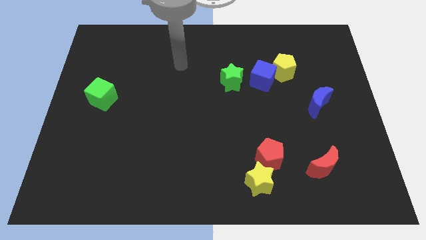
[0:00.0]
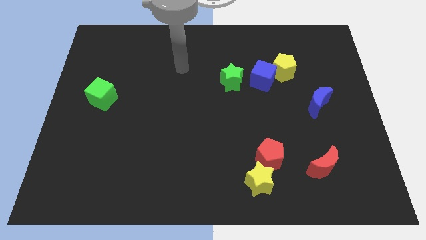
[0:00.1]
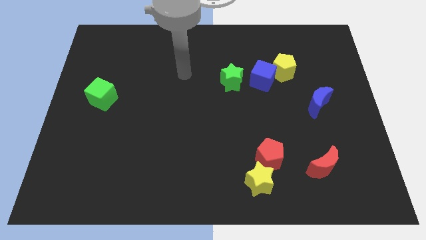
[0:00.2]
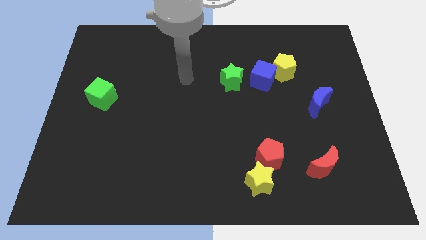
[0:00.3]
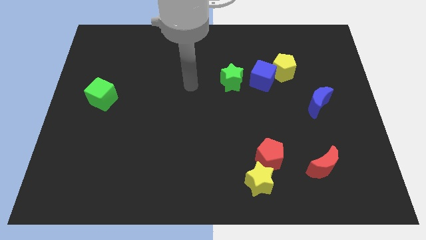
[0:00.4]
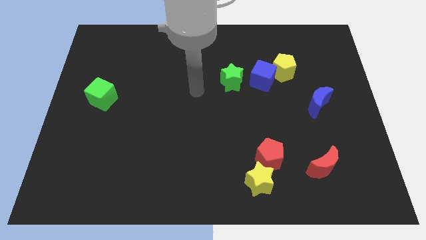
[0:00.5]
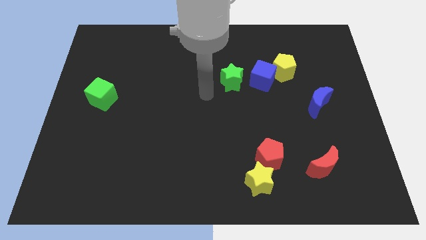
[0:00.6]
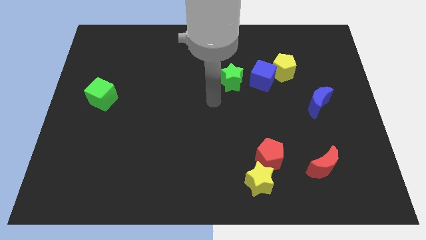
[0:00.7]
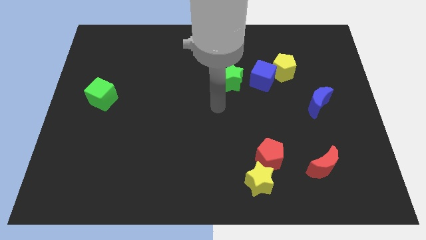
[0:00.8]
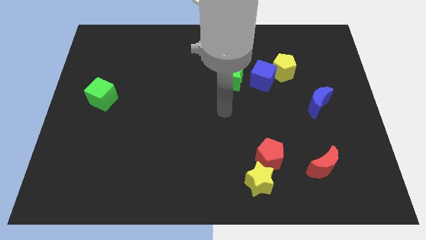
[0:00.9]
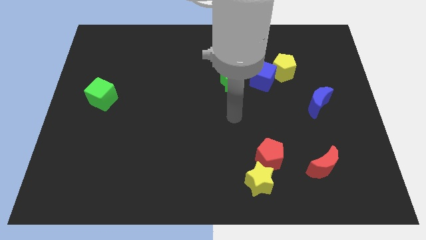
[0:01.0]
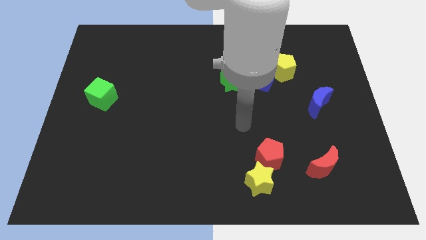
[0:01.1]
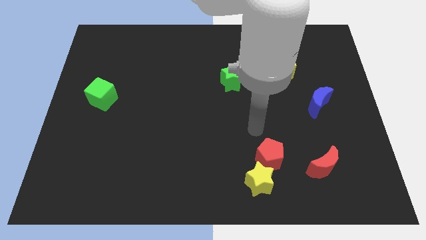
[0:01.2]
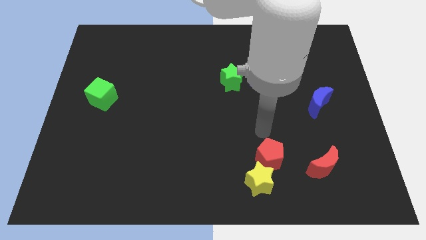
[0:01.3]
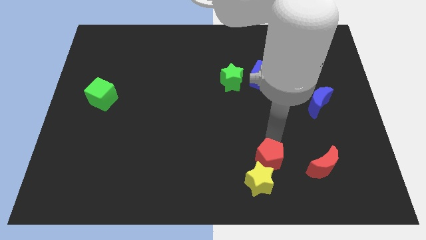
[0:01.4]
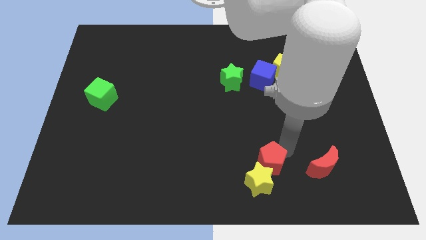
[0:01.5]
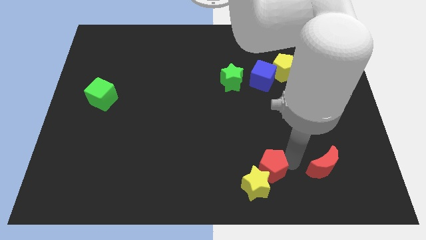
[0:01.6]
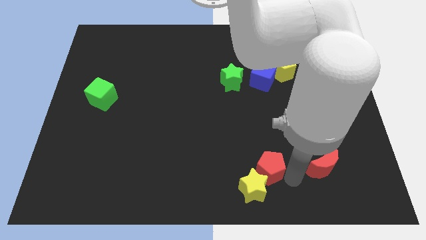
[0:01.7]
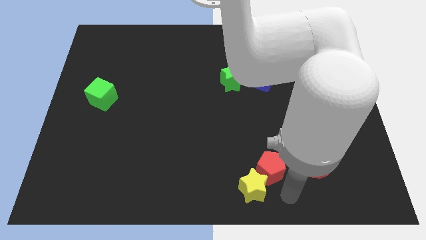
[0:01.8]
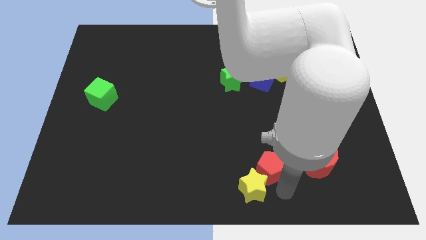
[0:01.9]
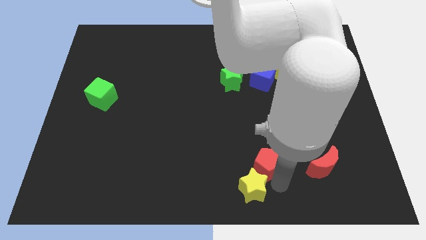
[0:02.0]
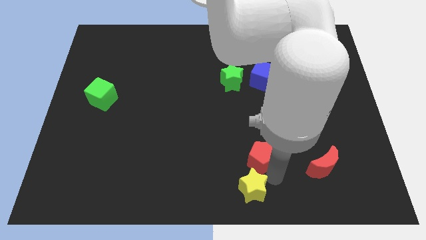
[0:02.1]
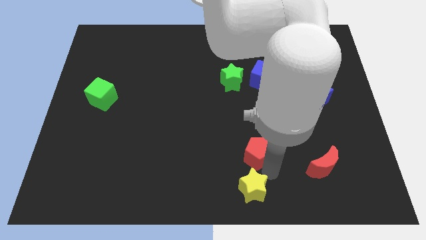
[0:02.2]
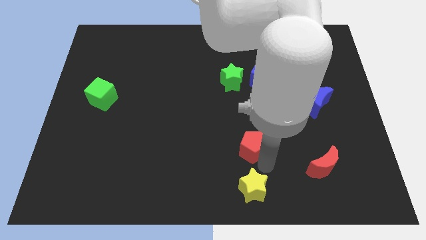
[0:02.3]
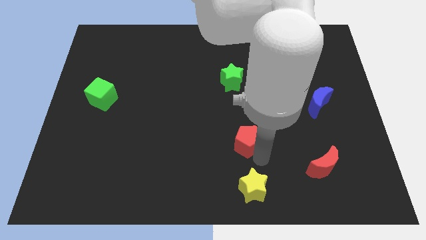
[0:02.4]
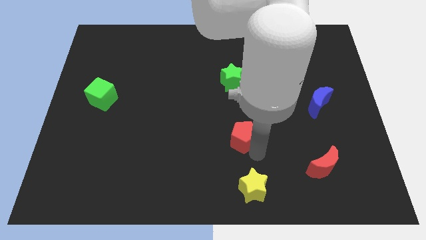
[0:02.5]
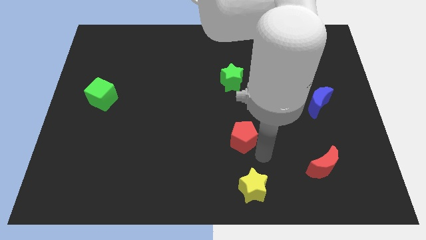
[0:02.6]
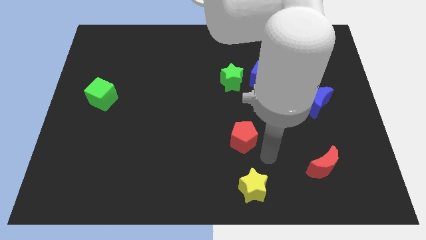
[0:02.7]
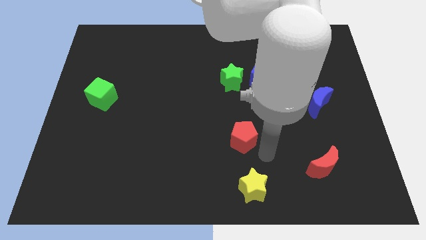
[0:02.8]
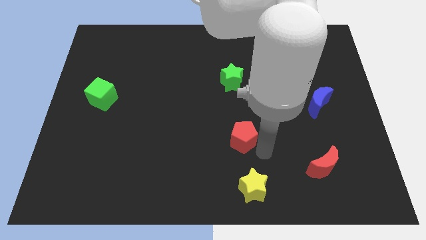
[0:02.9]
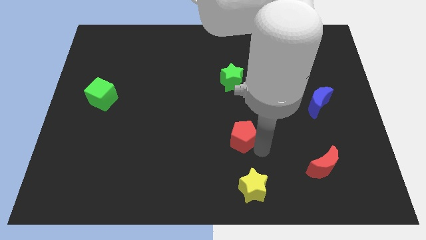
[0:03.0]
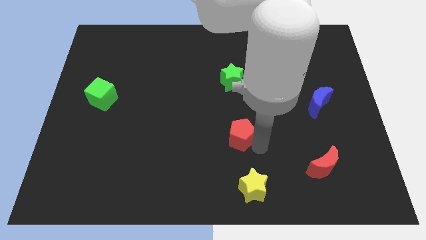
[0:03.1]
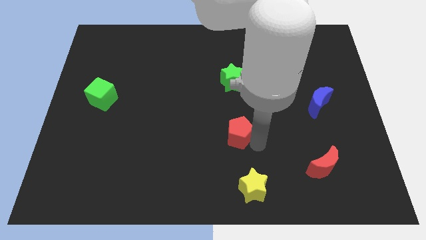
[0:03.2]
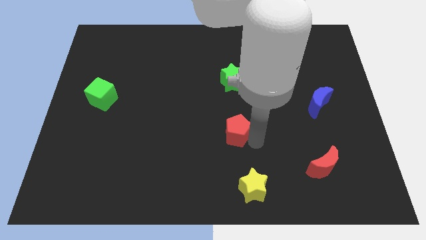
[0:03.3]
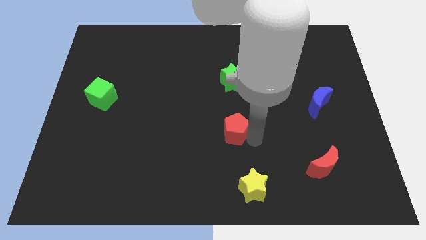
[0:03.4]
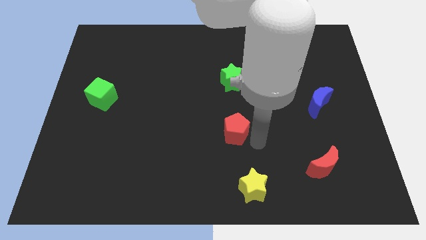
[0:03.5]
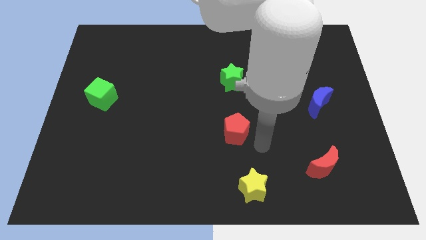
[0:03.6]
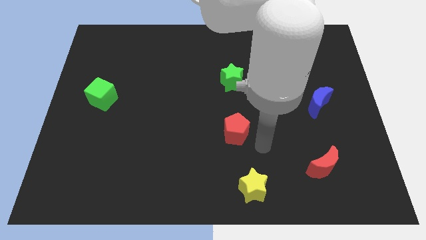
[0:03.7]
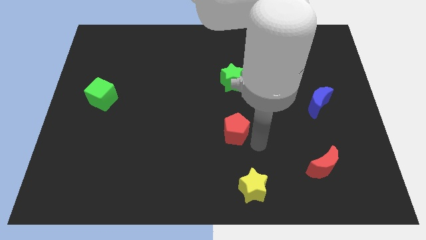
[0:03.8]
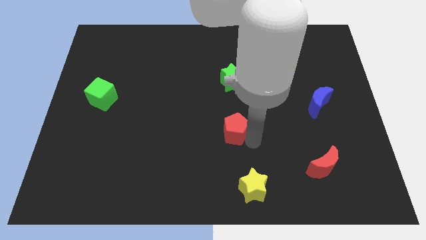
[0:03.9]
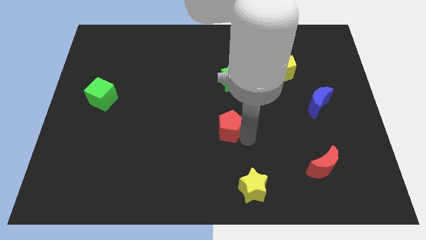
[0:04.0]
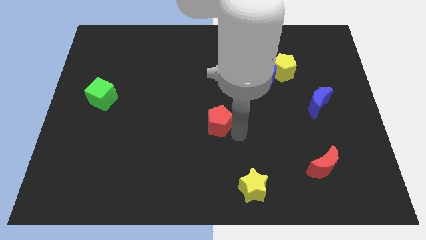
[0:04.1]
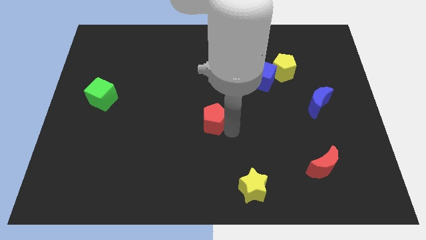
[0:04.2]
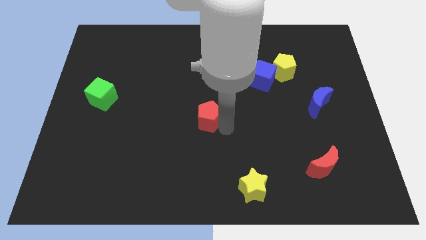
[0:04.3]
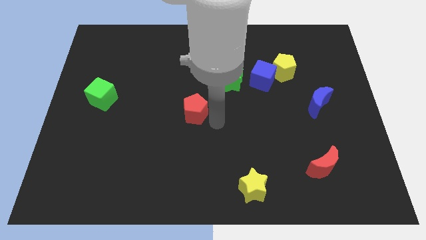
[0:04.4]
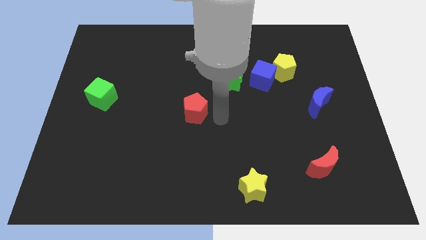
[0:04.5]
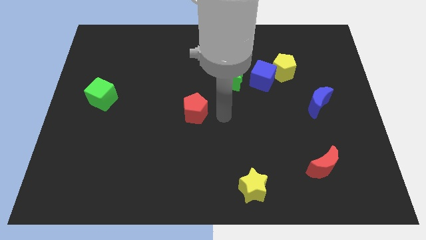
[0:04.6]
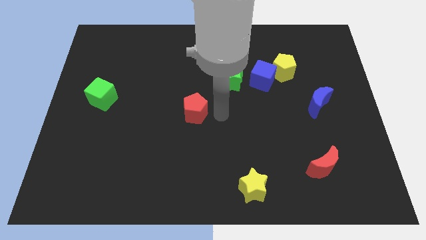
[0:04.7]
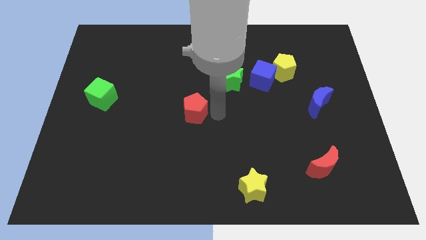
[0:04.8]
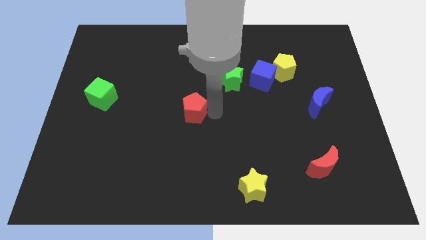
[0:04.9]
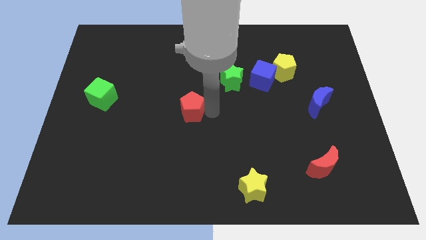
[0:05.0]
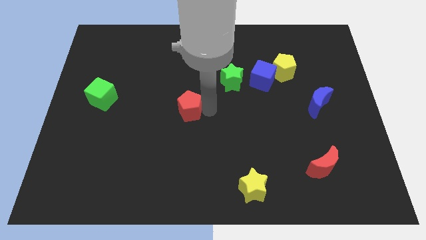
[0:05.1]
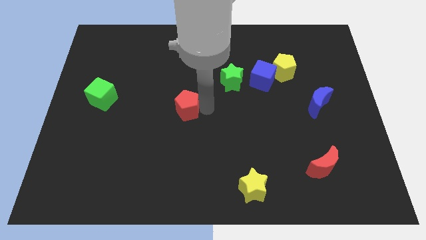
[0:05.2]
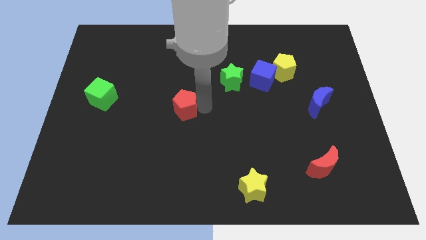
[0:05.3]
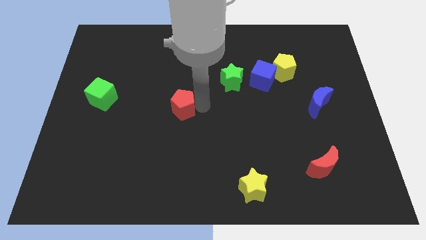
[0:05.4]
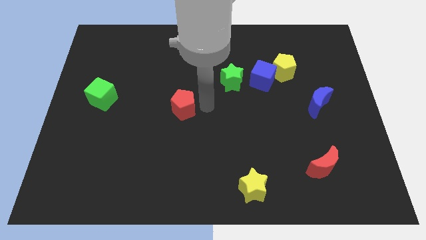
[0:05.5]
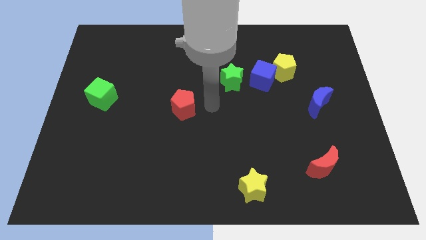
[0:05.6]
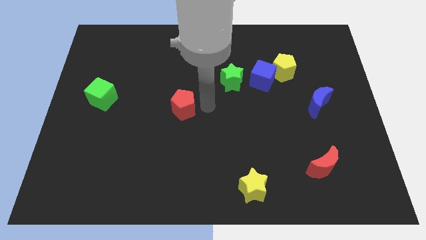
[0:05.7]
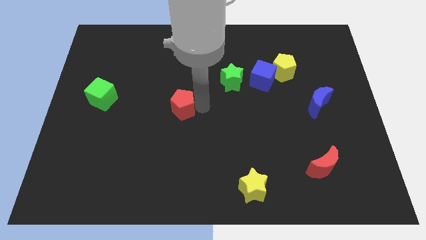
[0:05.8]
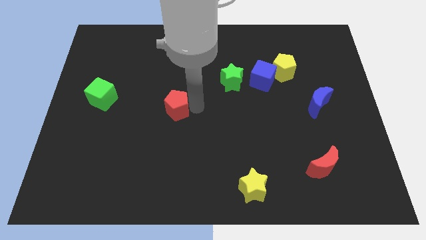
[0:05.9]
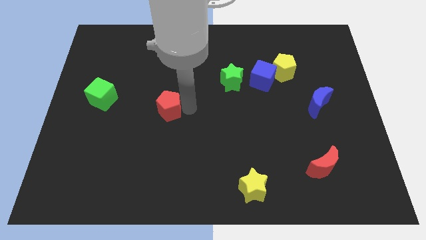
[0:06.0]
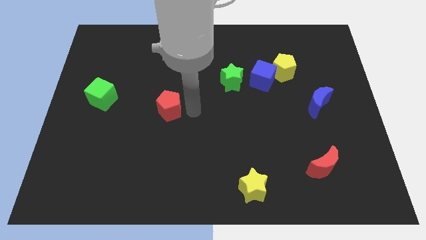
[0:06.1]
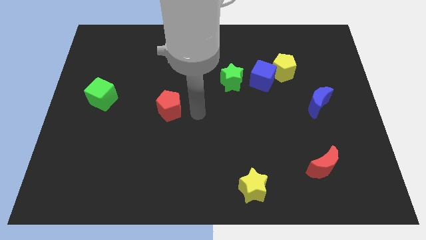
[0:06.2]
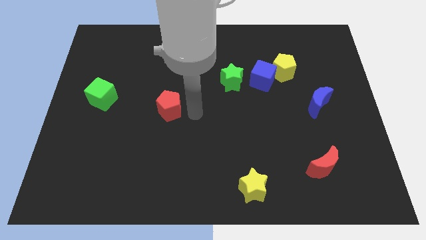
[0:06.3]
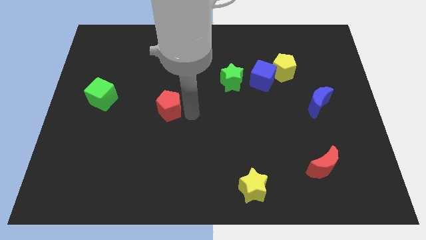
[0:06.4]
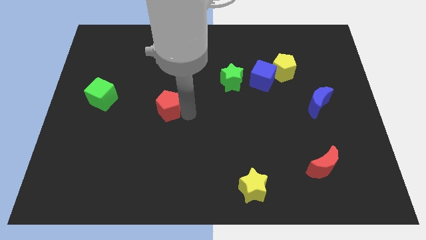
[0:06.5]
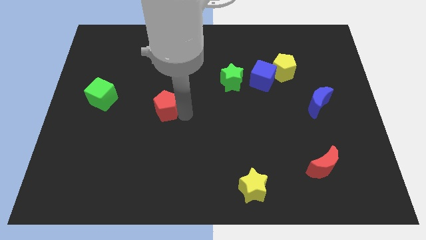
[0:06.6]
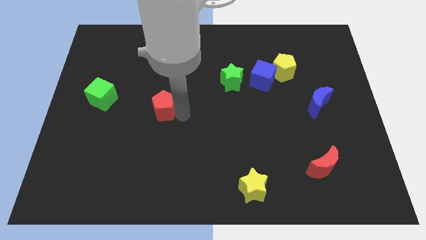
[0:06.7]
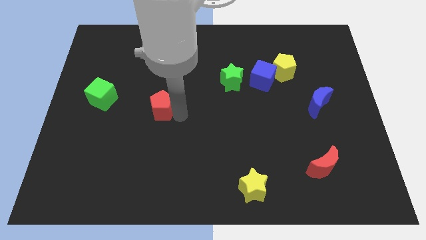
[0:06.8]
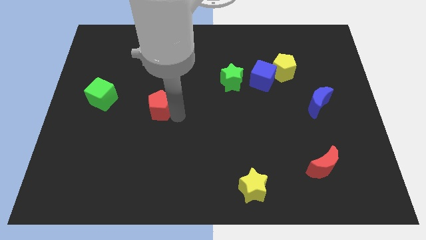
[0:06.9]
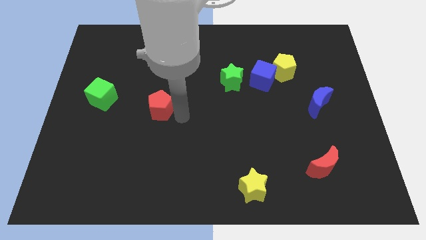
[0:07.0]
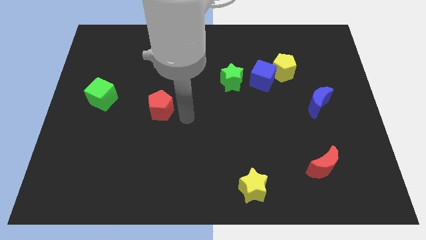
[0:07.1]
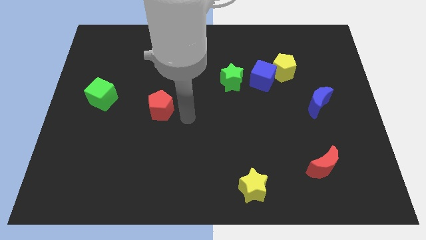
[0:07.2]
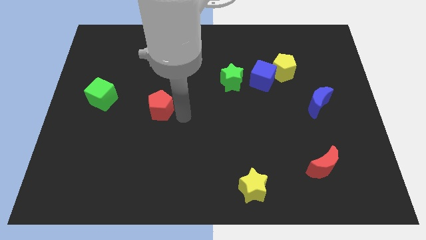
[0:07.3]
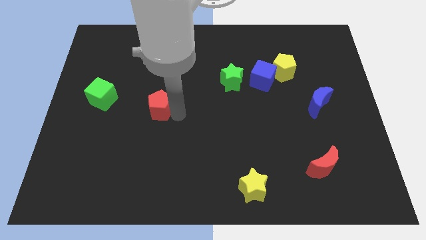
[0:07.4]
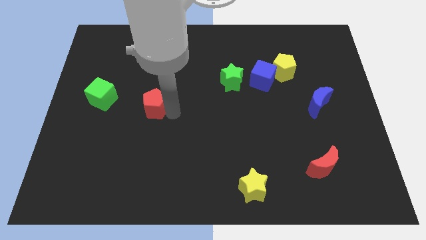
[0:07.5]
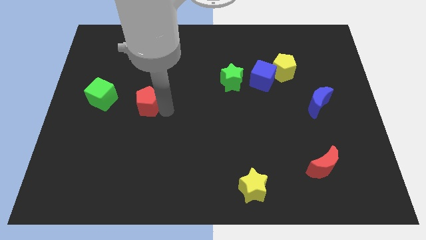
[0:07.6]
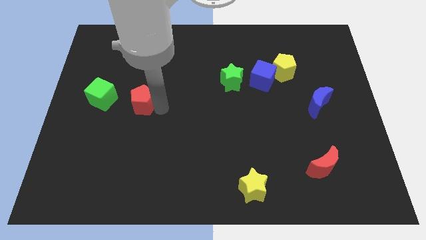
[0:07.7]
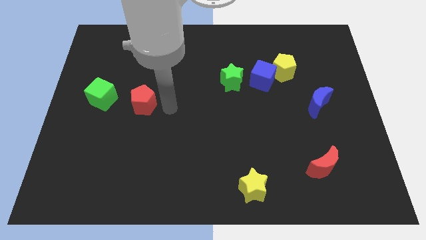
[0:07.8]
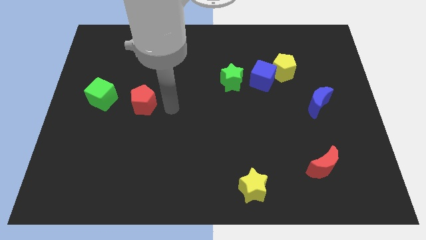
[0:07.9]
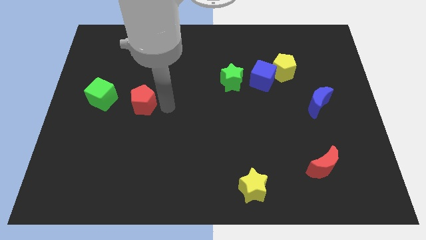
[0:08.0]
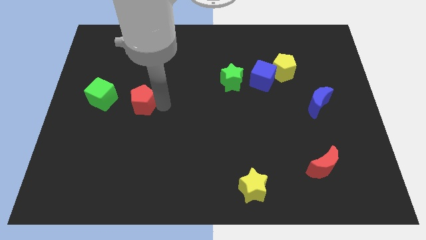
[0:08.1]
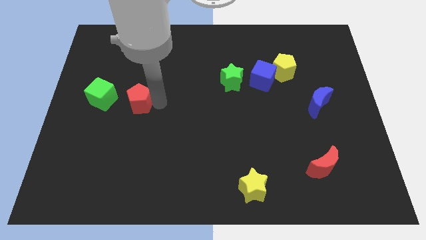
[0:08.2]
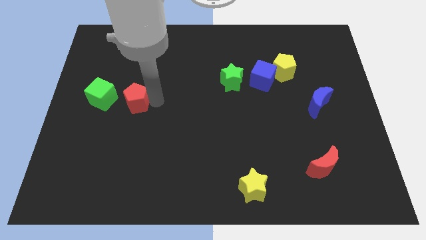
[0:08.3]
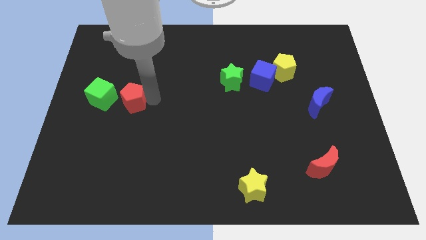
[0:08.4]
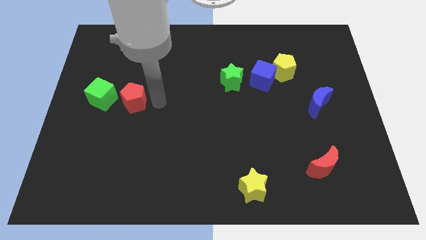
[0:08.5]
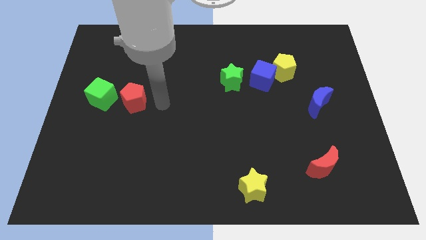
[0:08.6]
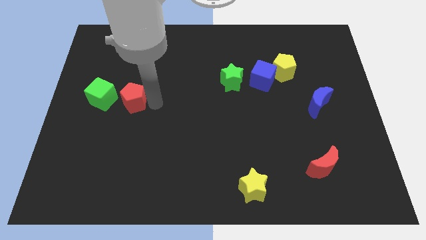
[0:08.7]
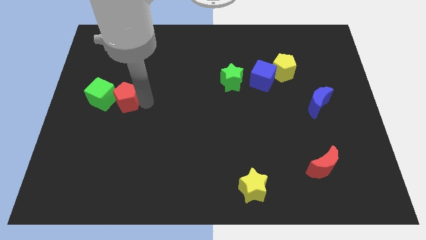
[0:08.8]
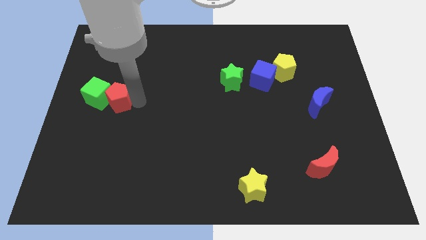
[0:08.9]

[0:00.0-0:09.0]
push the red pentagon close to the green cube
